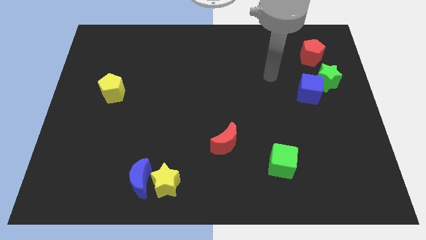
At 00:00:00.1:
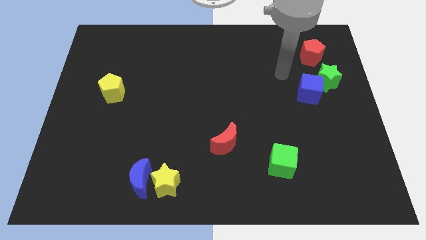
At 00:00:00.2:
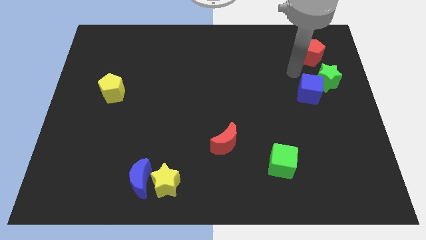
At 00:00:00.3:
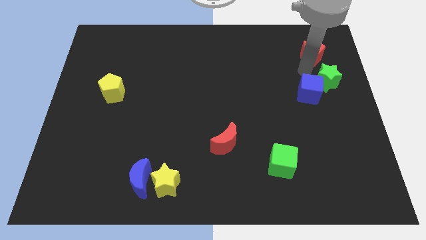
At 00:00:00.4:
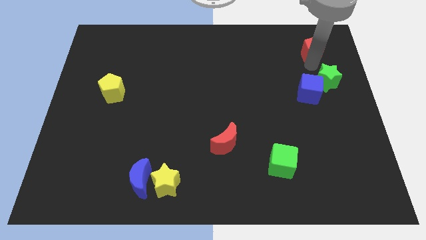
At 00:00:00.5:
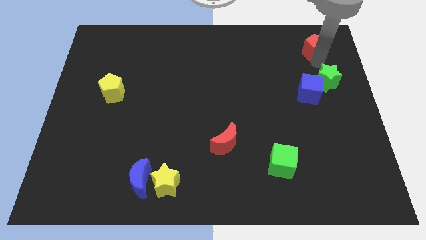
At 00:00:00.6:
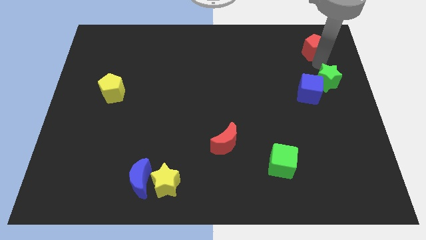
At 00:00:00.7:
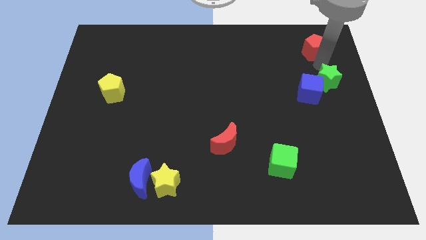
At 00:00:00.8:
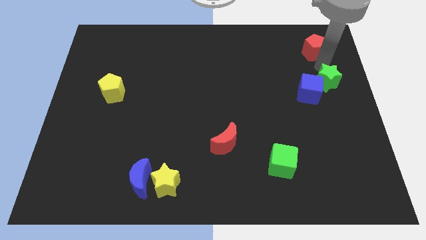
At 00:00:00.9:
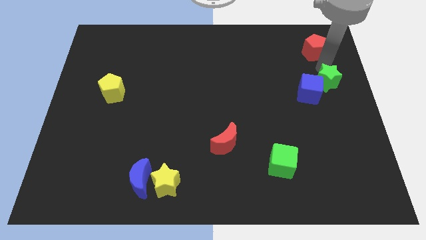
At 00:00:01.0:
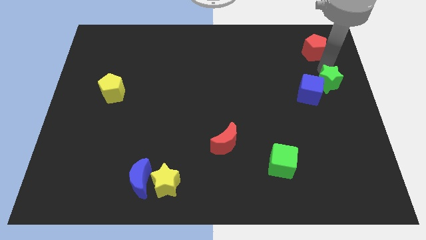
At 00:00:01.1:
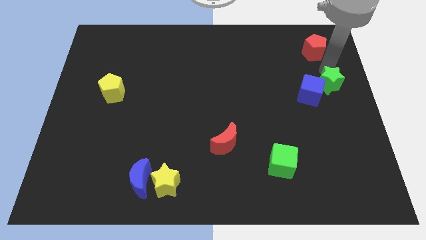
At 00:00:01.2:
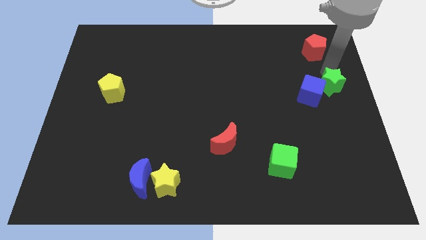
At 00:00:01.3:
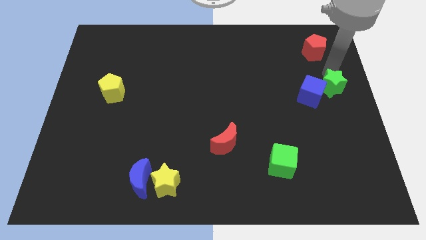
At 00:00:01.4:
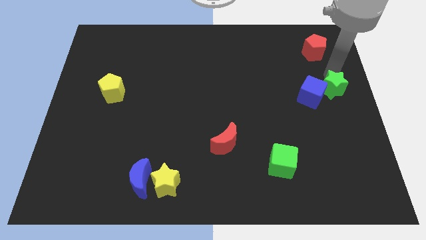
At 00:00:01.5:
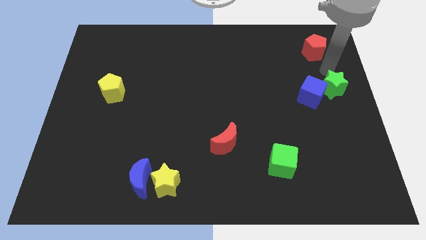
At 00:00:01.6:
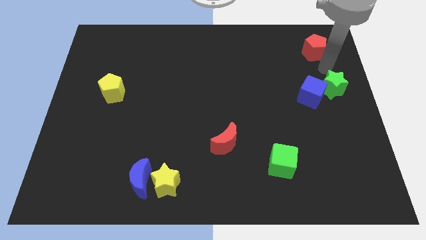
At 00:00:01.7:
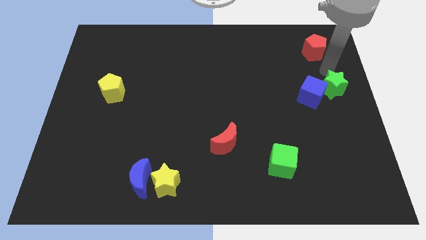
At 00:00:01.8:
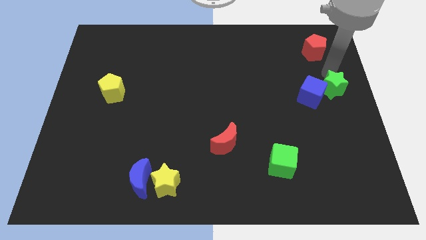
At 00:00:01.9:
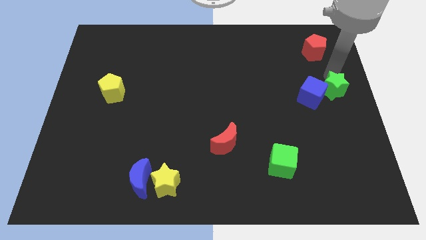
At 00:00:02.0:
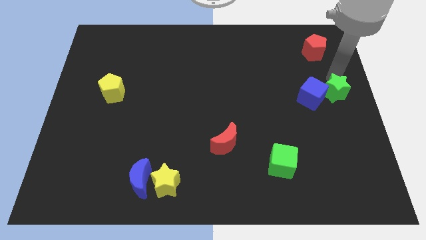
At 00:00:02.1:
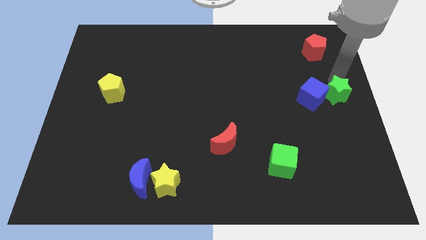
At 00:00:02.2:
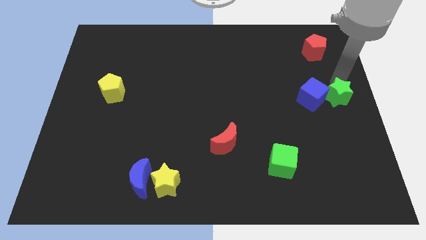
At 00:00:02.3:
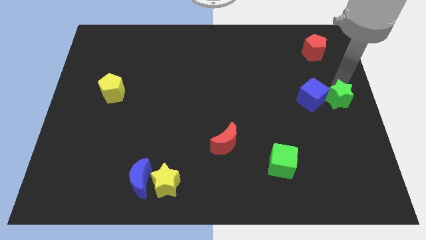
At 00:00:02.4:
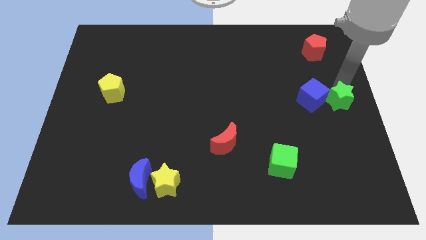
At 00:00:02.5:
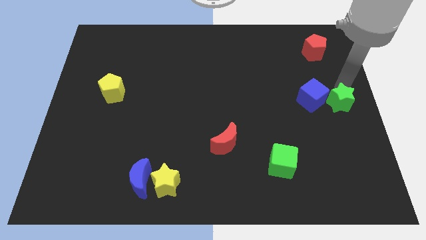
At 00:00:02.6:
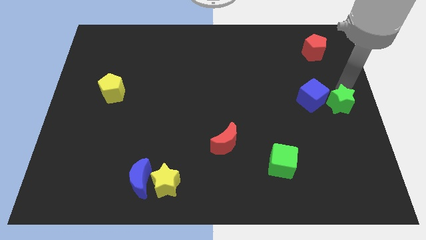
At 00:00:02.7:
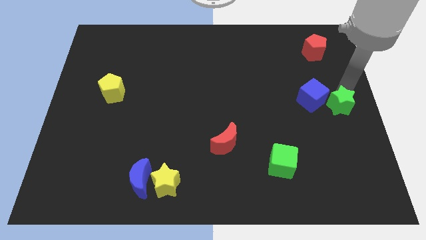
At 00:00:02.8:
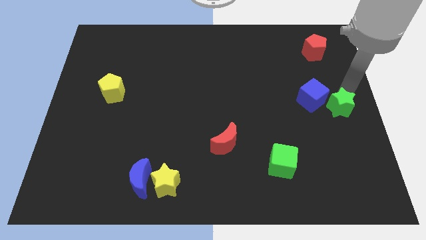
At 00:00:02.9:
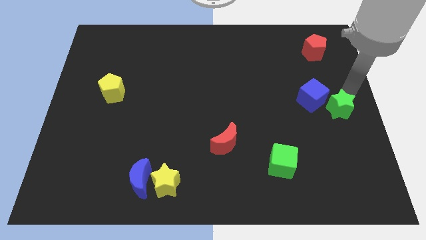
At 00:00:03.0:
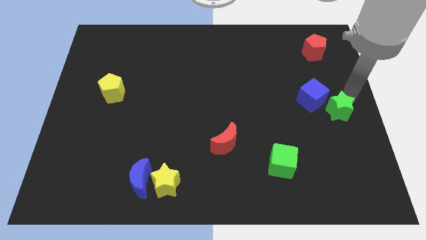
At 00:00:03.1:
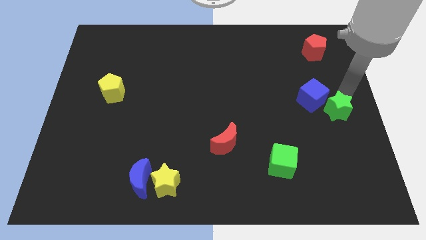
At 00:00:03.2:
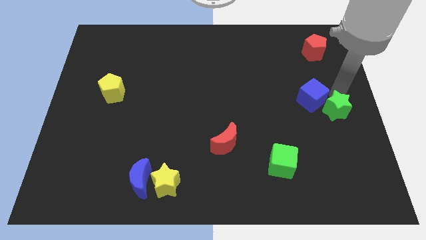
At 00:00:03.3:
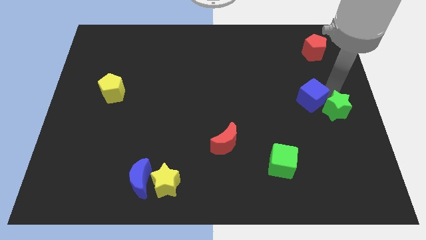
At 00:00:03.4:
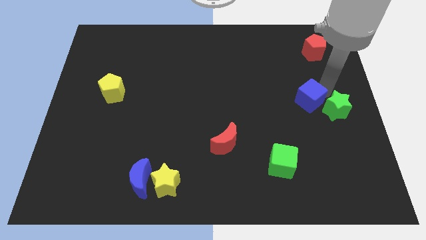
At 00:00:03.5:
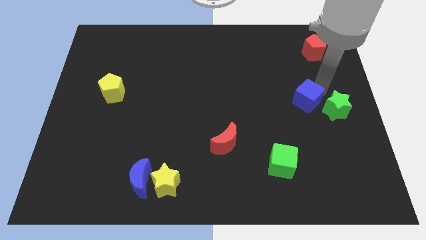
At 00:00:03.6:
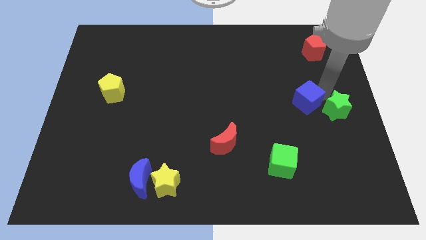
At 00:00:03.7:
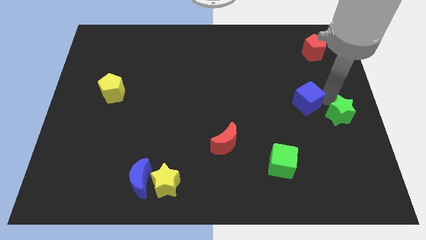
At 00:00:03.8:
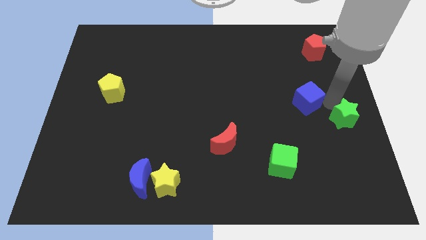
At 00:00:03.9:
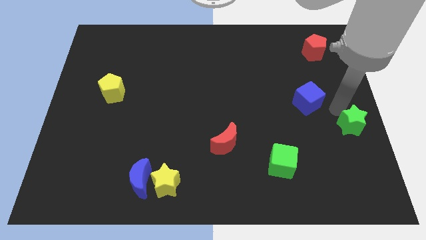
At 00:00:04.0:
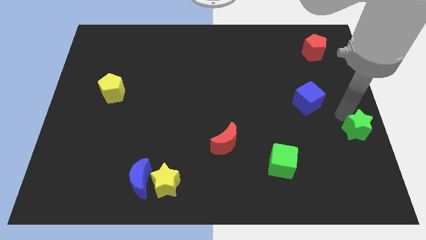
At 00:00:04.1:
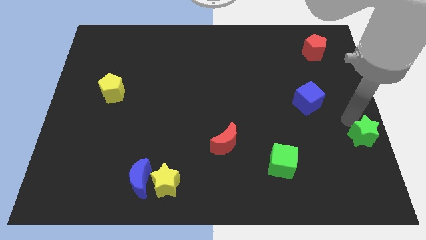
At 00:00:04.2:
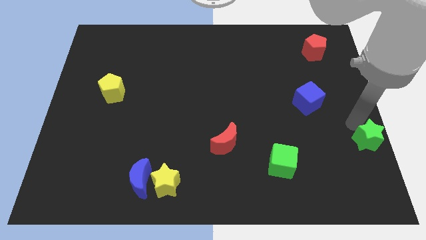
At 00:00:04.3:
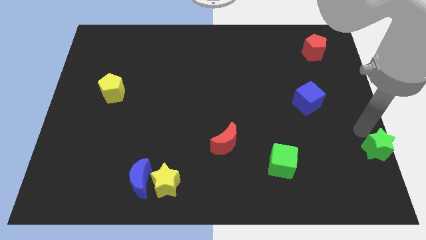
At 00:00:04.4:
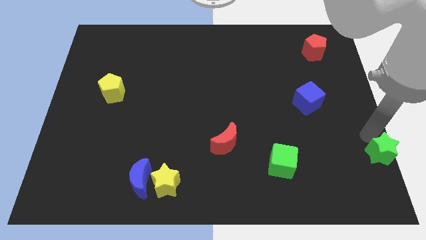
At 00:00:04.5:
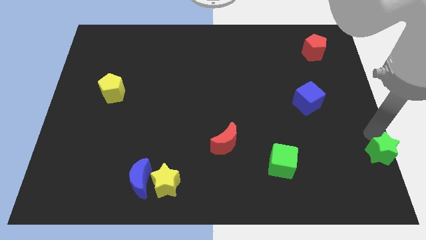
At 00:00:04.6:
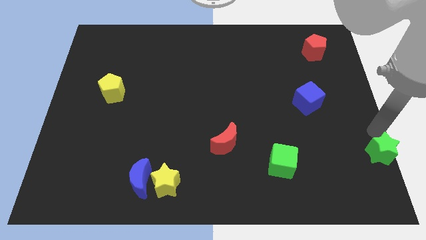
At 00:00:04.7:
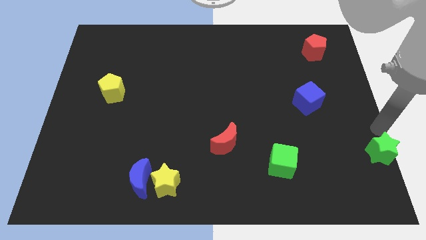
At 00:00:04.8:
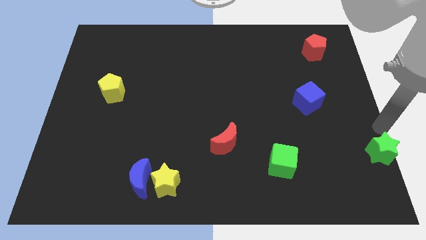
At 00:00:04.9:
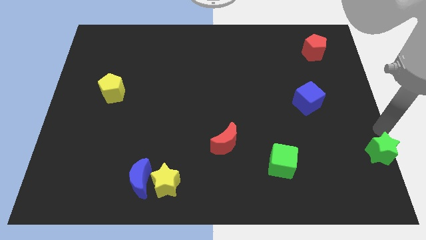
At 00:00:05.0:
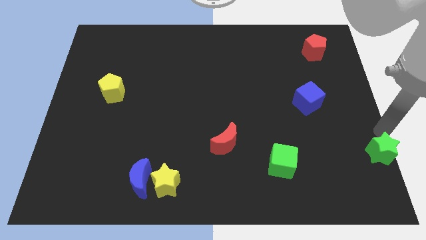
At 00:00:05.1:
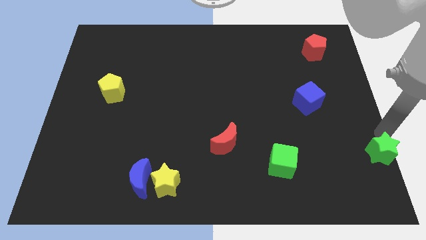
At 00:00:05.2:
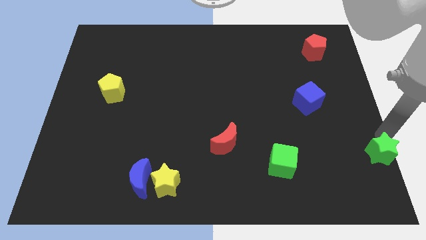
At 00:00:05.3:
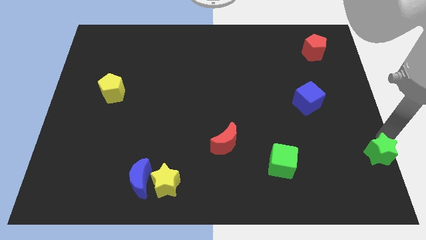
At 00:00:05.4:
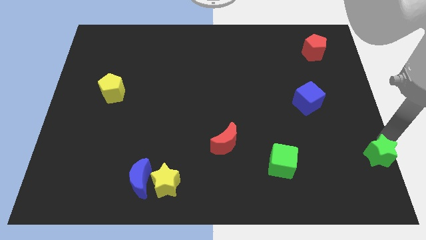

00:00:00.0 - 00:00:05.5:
push the green star to the bottom right corner
